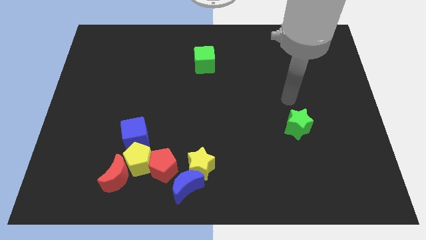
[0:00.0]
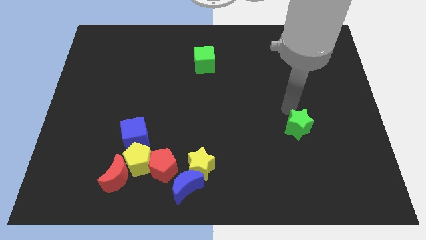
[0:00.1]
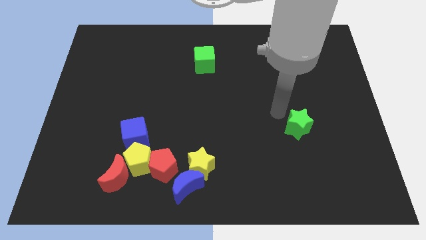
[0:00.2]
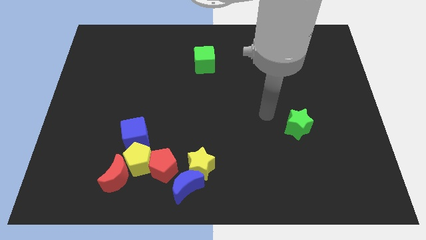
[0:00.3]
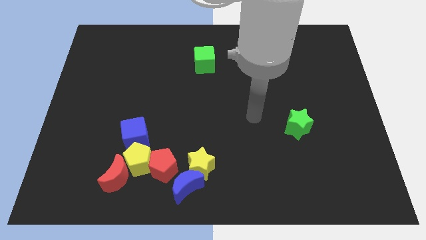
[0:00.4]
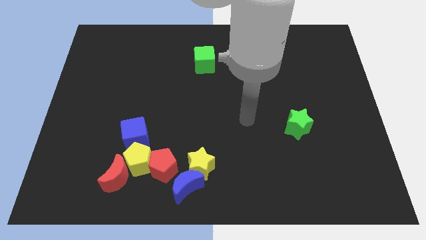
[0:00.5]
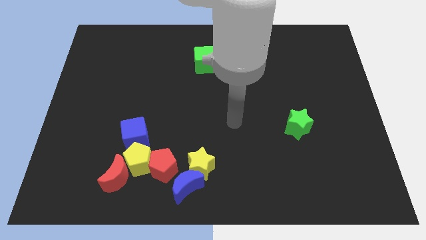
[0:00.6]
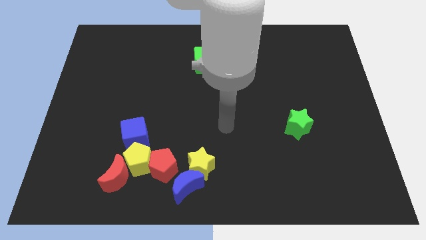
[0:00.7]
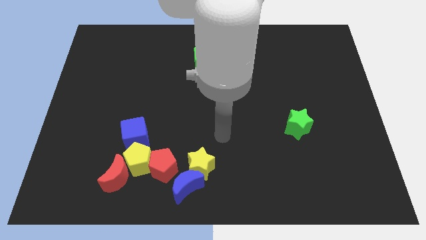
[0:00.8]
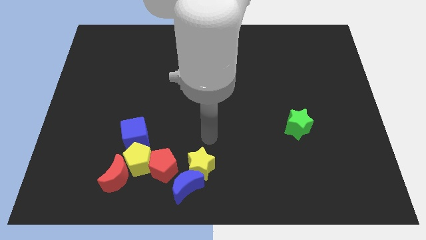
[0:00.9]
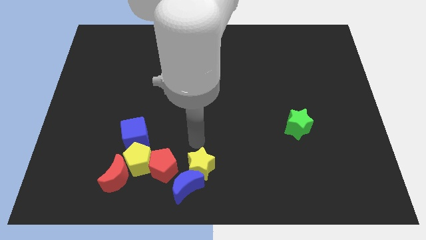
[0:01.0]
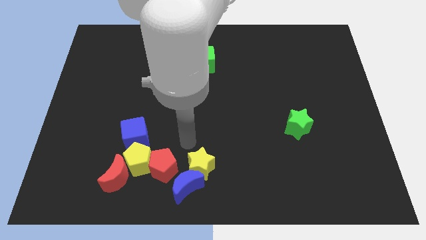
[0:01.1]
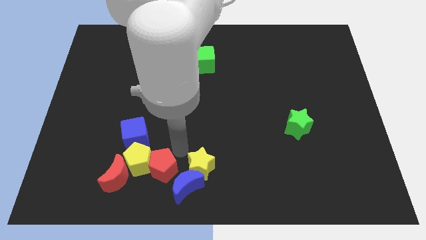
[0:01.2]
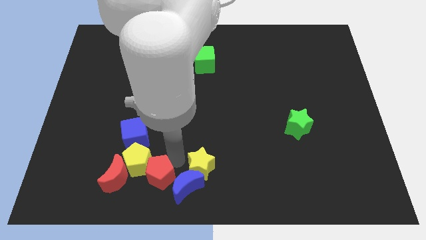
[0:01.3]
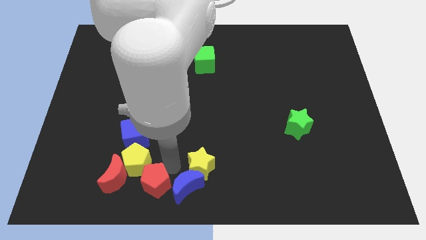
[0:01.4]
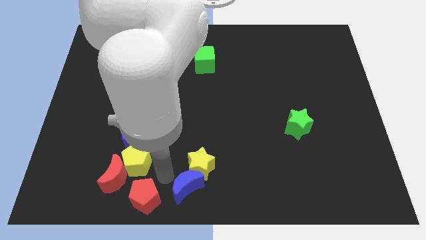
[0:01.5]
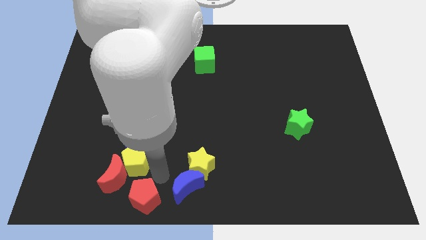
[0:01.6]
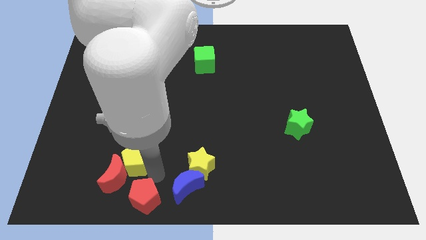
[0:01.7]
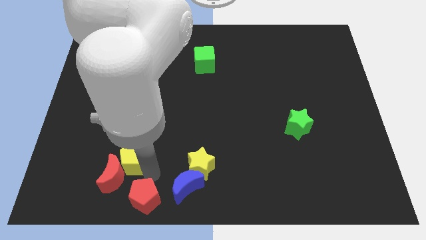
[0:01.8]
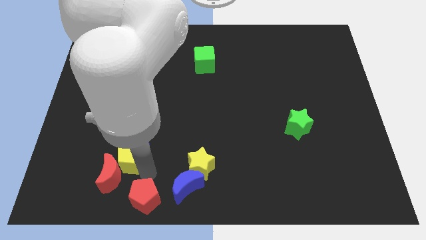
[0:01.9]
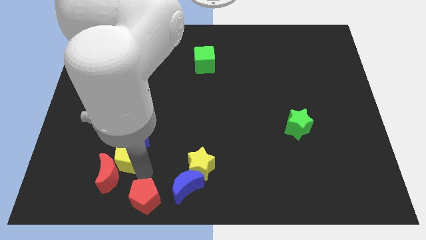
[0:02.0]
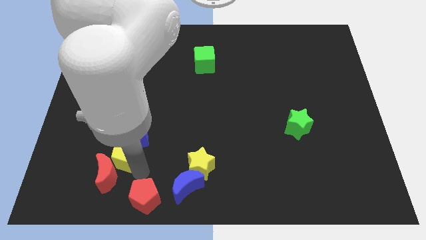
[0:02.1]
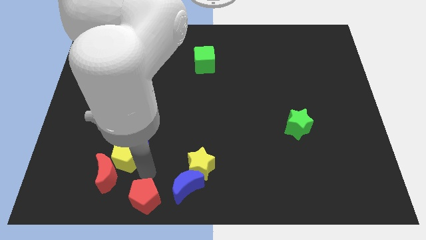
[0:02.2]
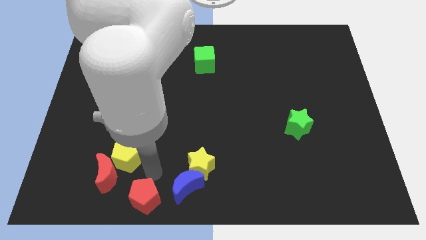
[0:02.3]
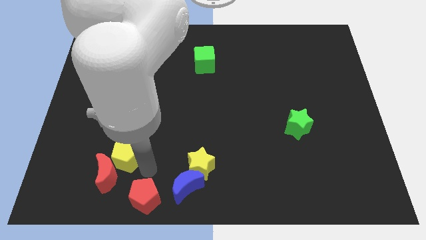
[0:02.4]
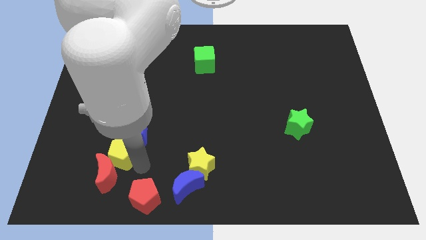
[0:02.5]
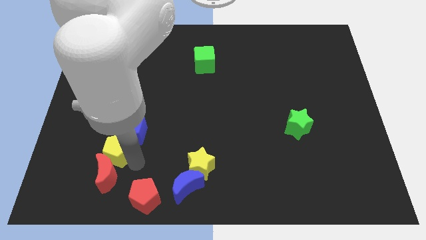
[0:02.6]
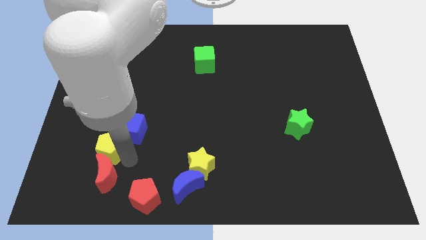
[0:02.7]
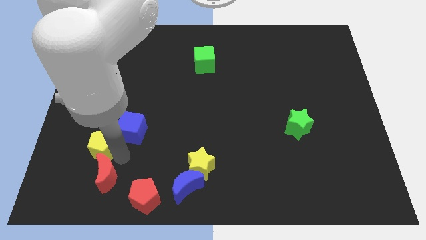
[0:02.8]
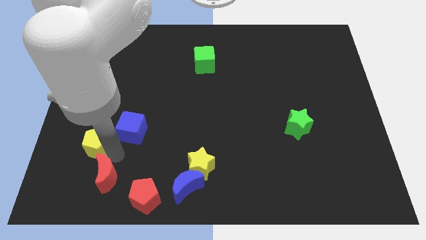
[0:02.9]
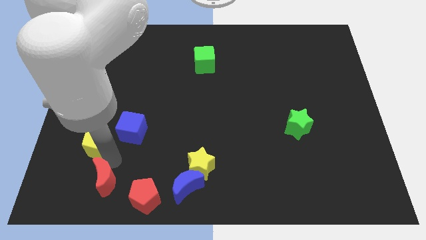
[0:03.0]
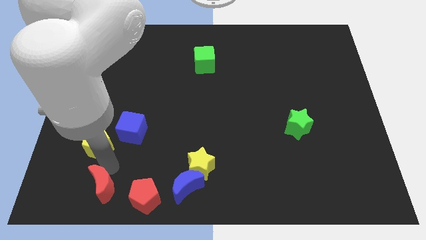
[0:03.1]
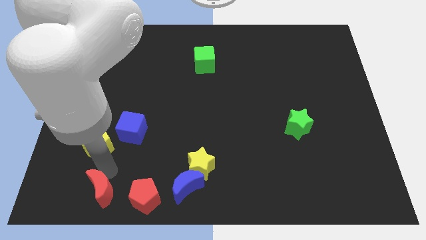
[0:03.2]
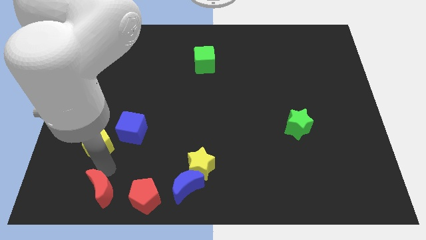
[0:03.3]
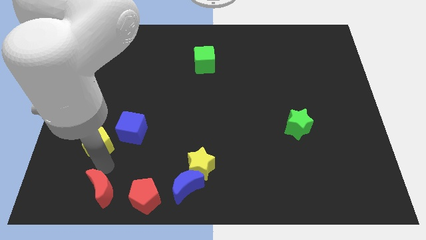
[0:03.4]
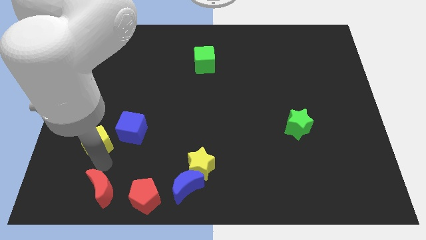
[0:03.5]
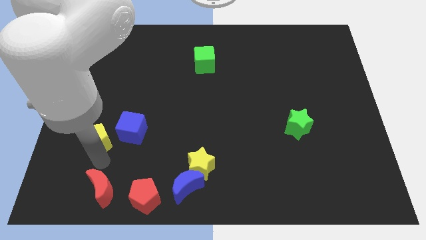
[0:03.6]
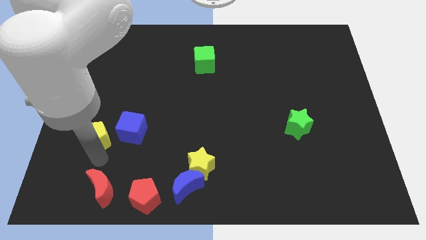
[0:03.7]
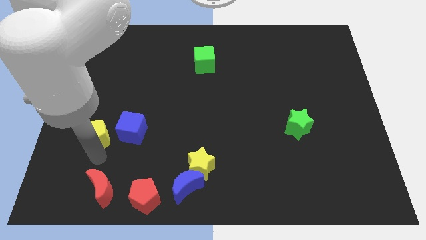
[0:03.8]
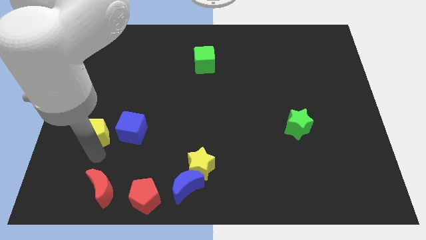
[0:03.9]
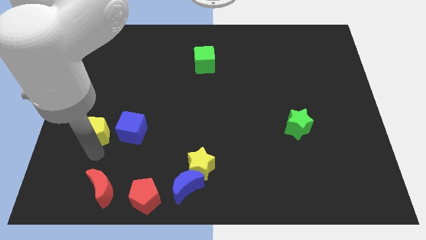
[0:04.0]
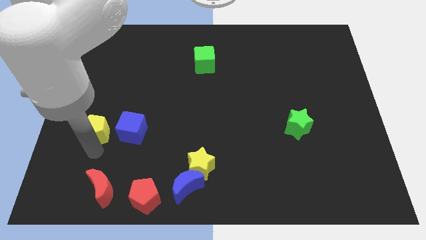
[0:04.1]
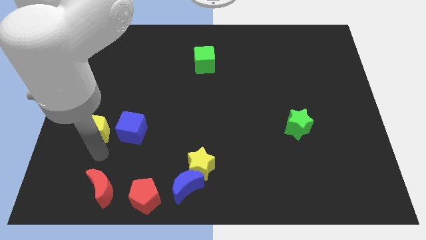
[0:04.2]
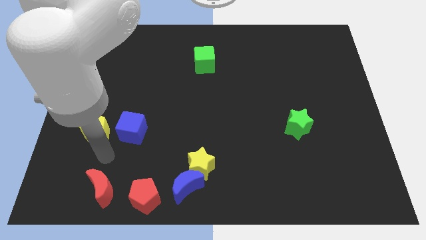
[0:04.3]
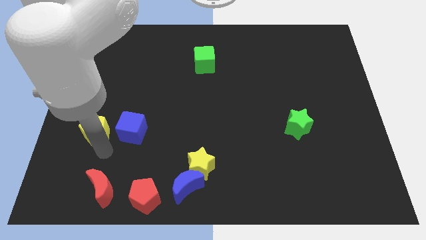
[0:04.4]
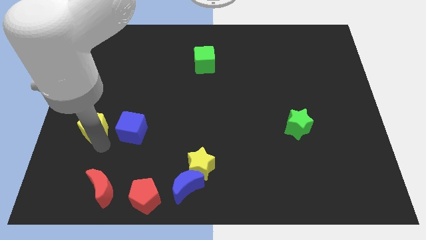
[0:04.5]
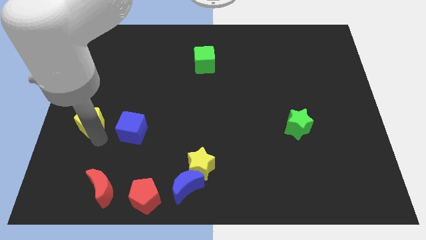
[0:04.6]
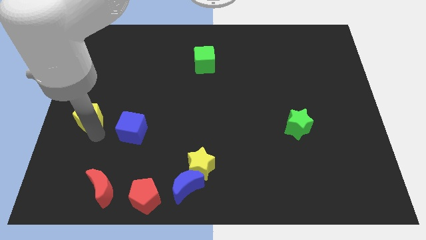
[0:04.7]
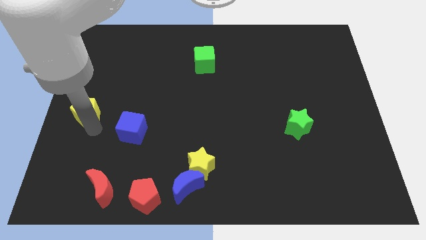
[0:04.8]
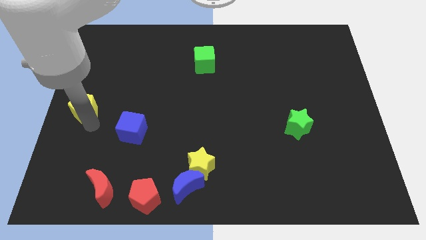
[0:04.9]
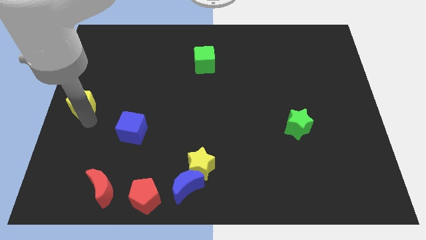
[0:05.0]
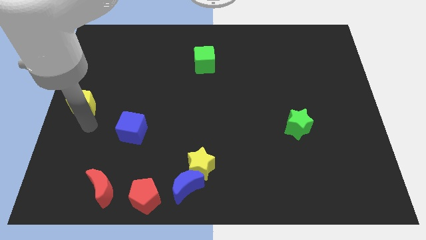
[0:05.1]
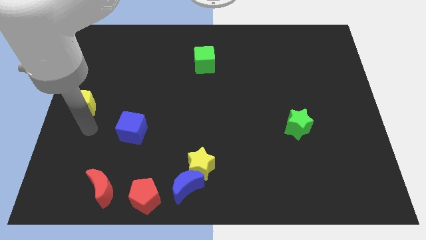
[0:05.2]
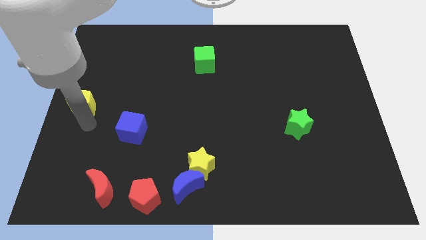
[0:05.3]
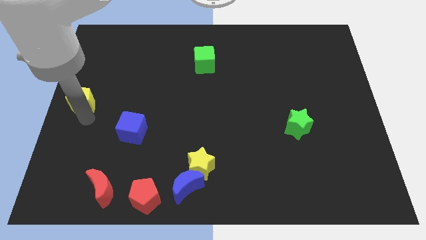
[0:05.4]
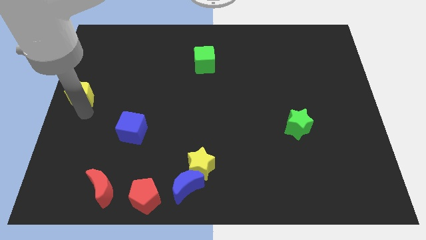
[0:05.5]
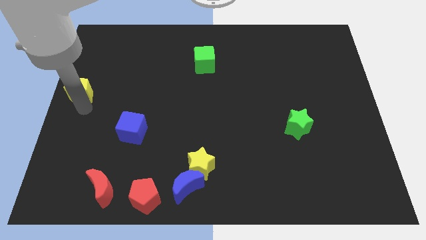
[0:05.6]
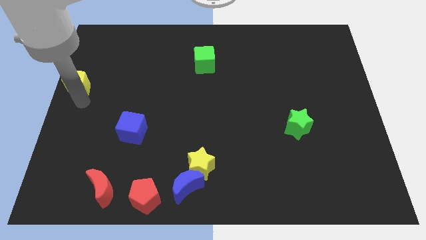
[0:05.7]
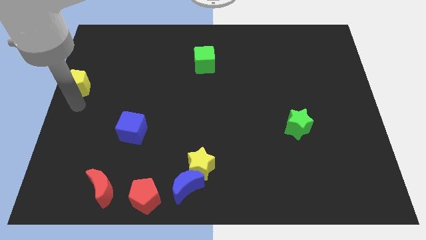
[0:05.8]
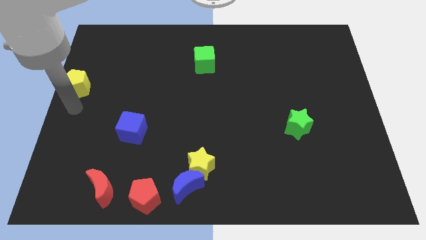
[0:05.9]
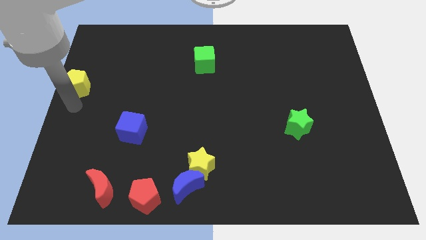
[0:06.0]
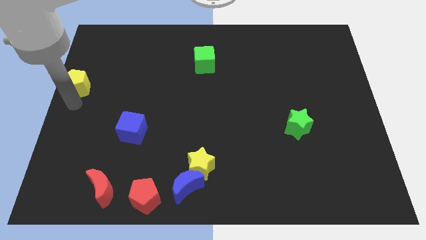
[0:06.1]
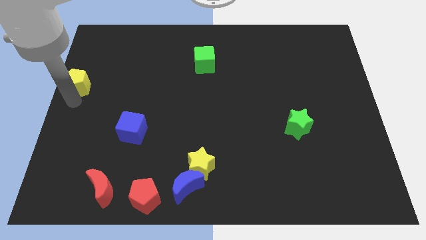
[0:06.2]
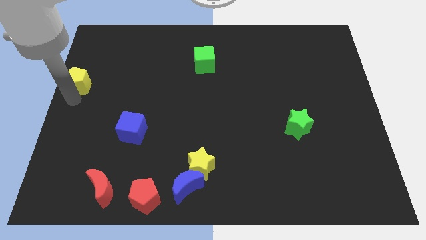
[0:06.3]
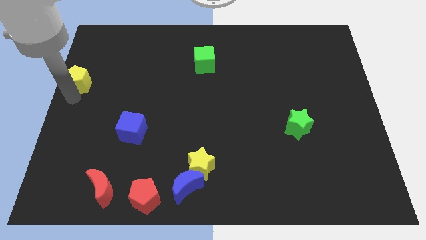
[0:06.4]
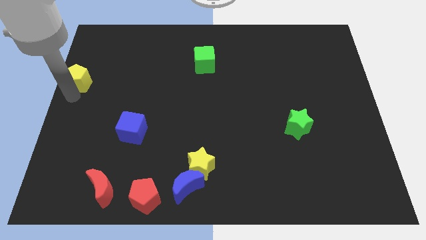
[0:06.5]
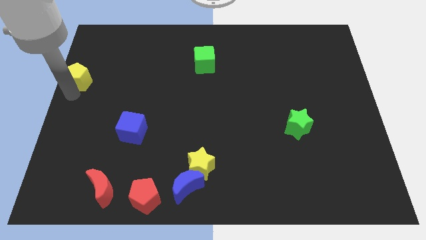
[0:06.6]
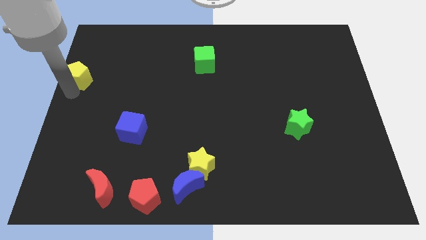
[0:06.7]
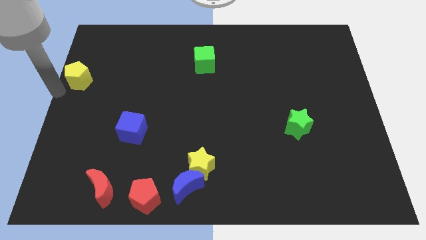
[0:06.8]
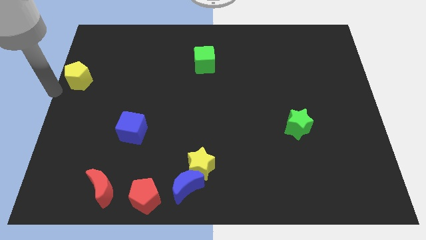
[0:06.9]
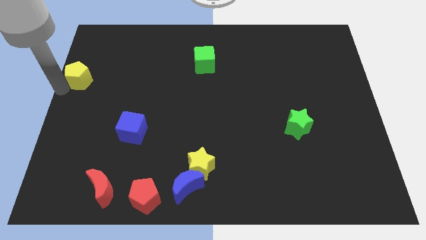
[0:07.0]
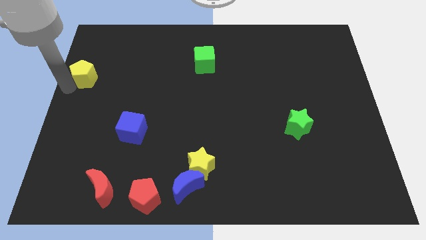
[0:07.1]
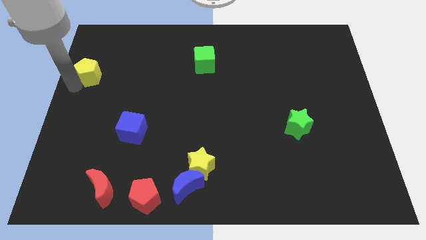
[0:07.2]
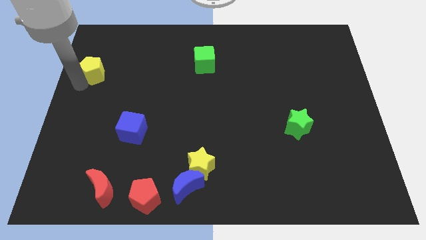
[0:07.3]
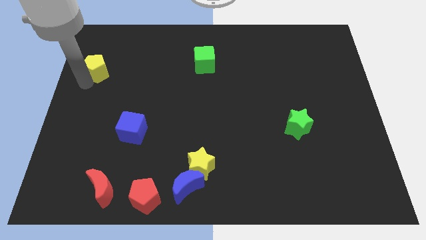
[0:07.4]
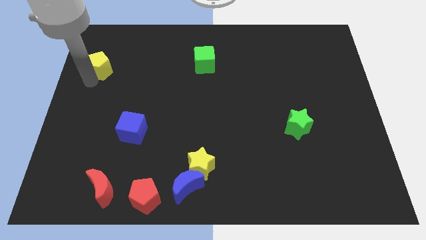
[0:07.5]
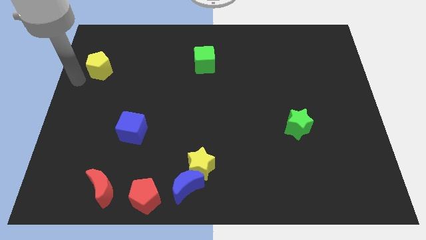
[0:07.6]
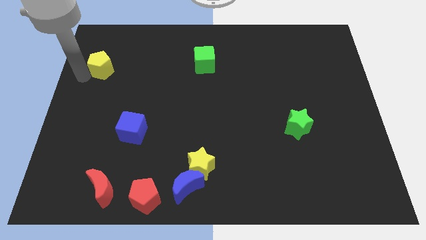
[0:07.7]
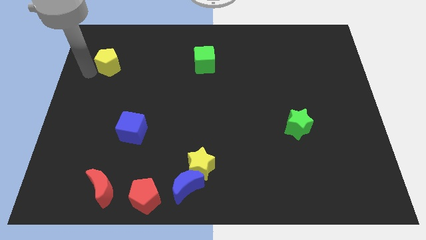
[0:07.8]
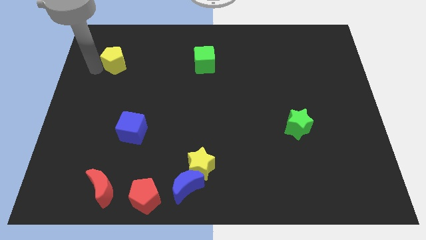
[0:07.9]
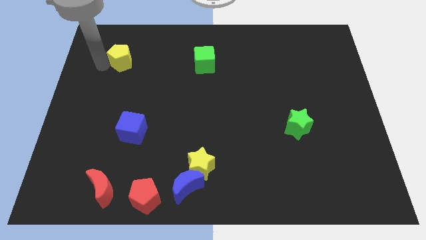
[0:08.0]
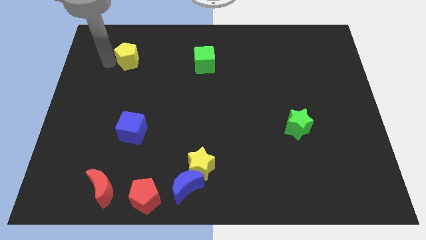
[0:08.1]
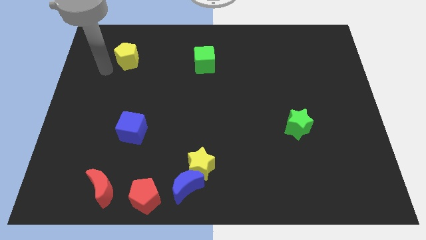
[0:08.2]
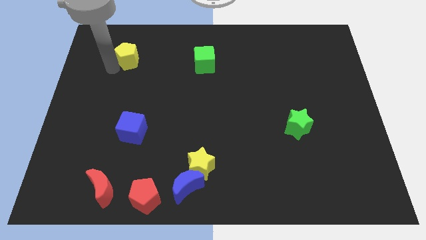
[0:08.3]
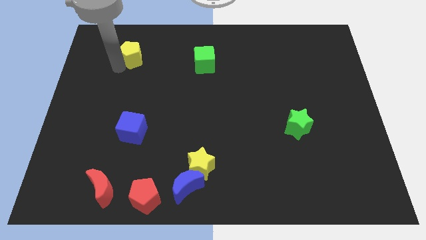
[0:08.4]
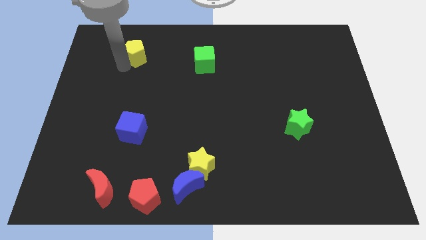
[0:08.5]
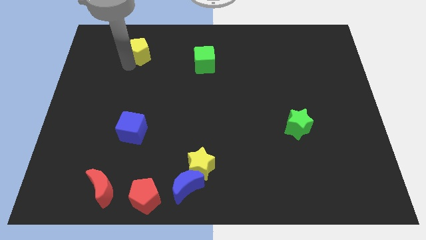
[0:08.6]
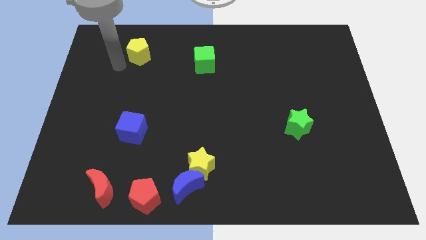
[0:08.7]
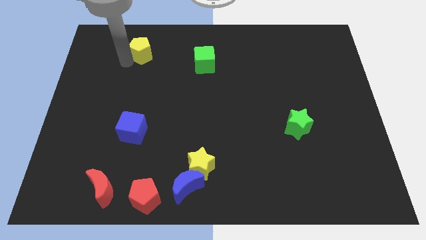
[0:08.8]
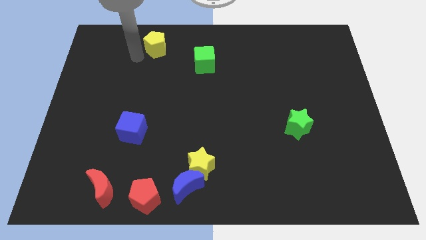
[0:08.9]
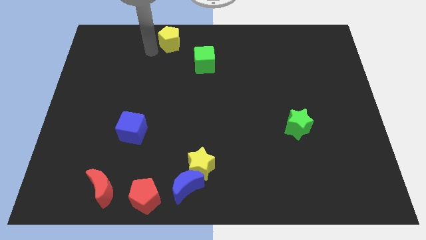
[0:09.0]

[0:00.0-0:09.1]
move the yellow pentagon to the top
